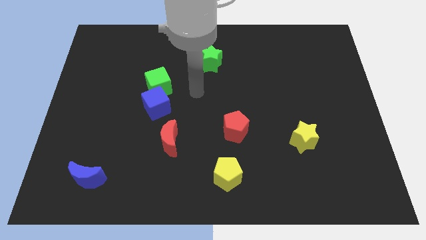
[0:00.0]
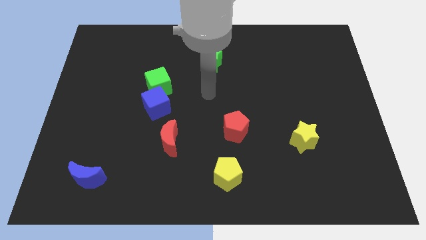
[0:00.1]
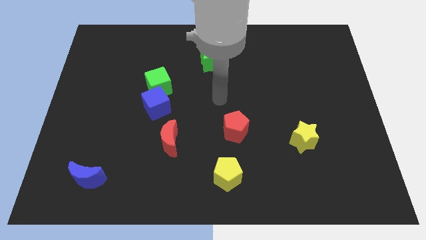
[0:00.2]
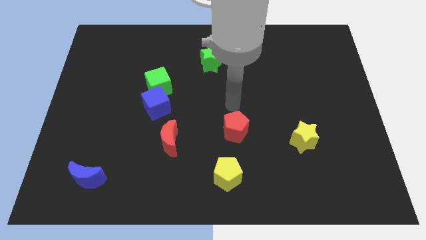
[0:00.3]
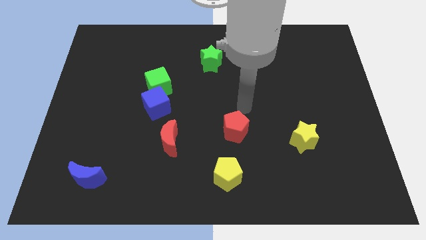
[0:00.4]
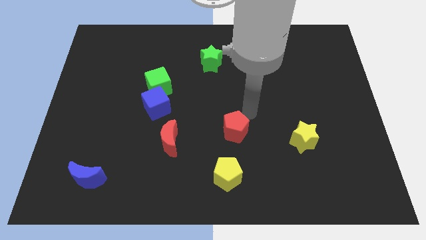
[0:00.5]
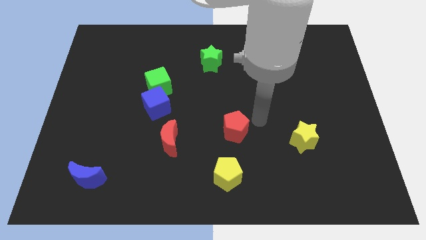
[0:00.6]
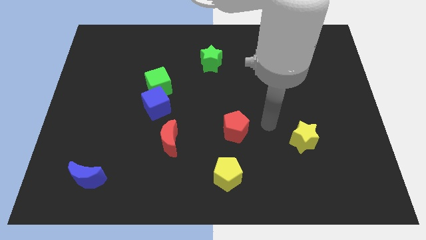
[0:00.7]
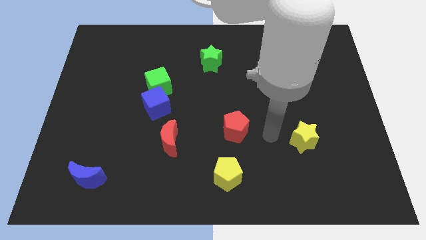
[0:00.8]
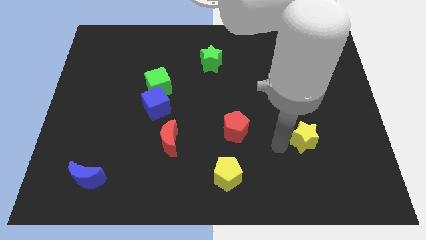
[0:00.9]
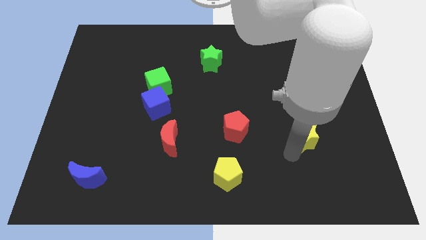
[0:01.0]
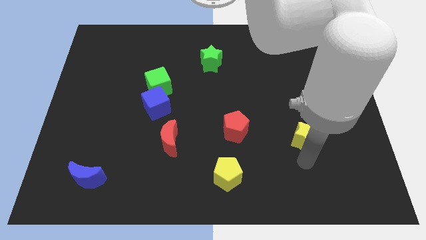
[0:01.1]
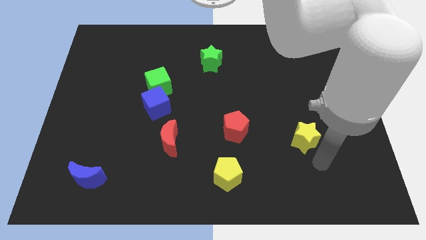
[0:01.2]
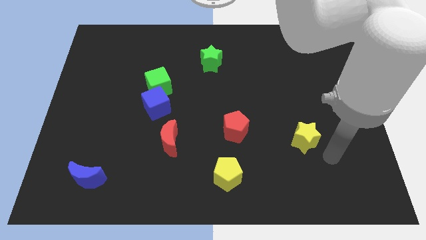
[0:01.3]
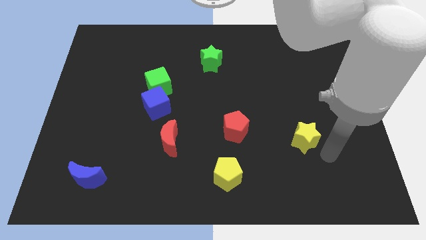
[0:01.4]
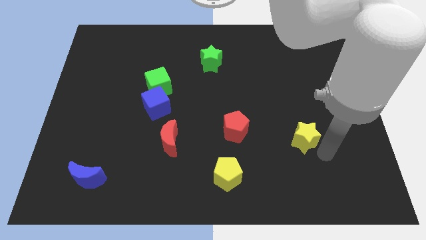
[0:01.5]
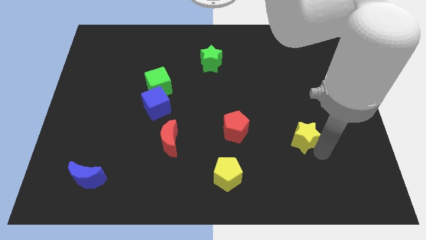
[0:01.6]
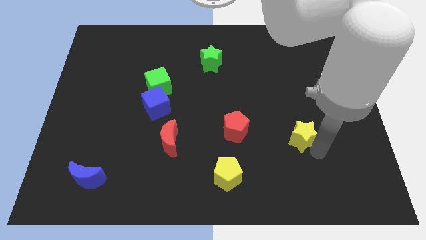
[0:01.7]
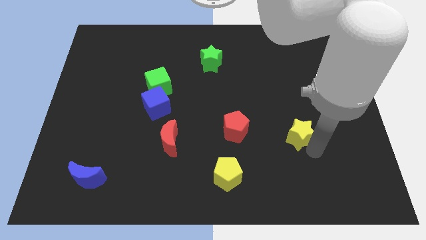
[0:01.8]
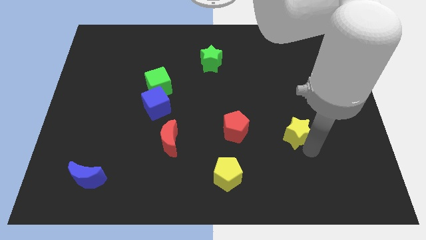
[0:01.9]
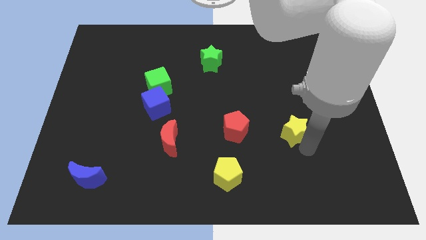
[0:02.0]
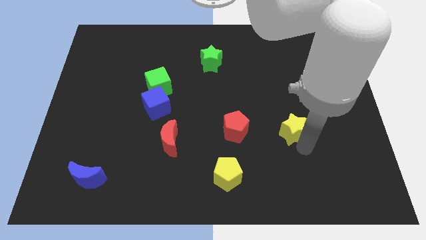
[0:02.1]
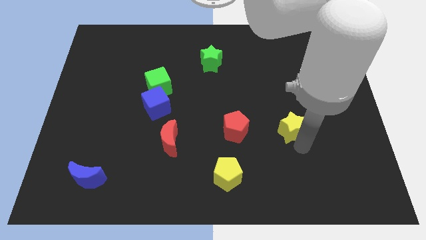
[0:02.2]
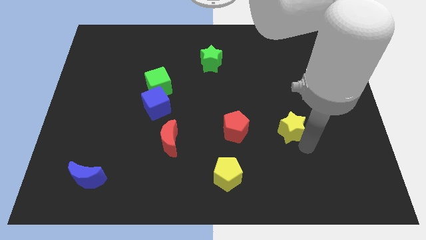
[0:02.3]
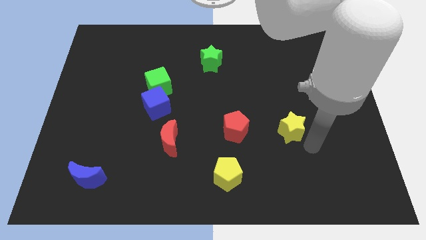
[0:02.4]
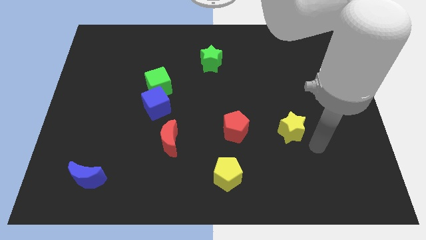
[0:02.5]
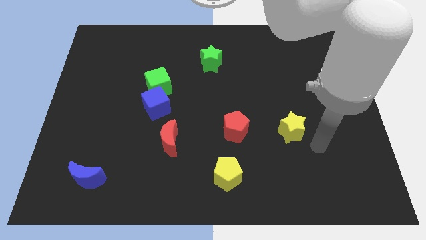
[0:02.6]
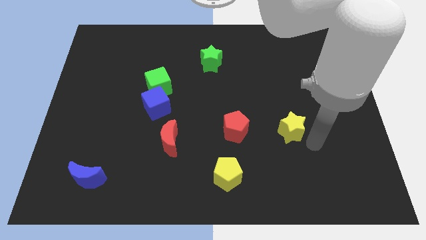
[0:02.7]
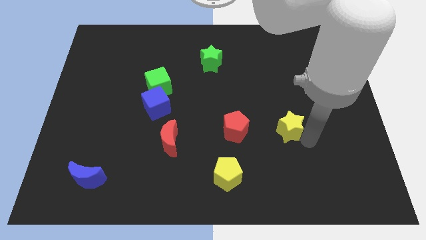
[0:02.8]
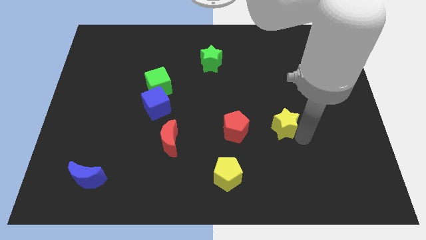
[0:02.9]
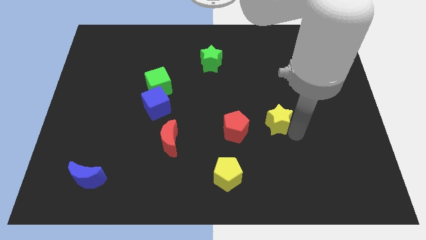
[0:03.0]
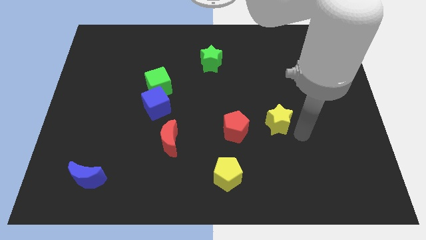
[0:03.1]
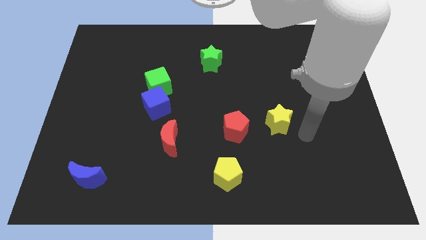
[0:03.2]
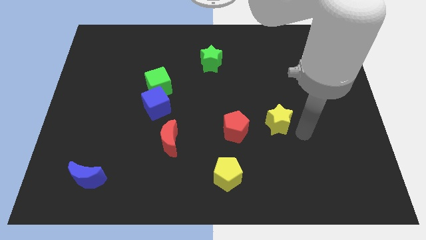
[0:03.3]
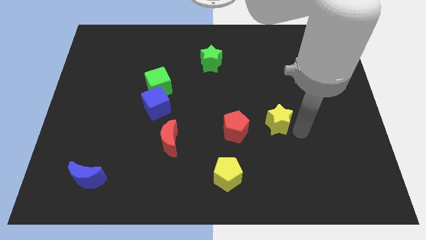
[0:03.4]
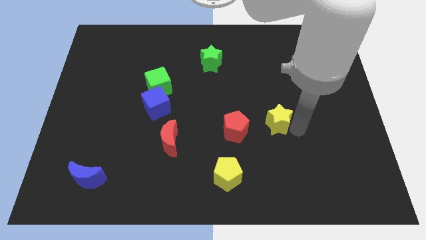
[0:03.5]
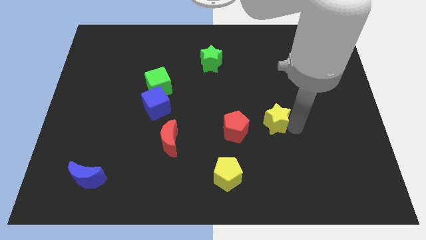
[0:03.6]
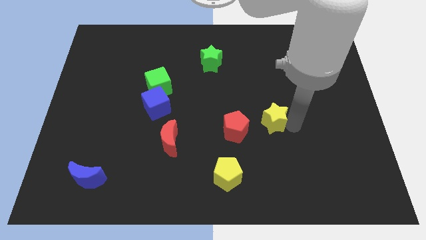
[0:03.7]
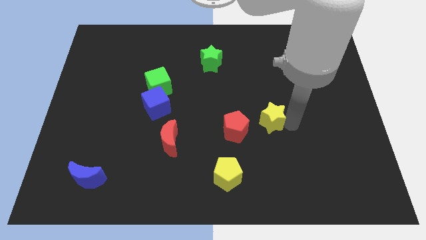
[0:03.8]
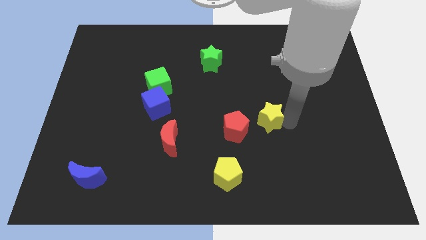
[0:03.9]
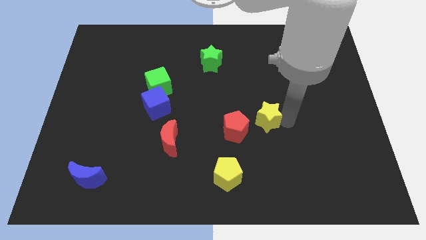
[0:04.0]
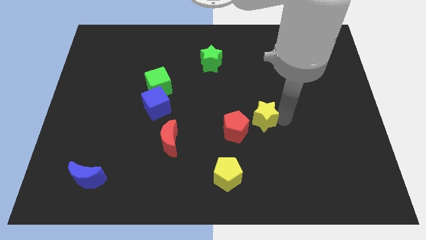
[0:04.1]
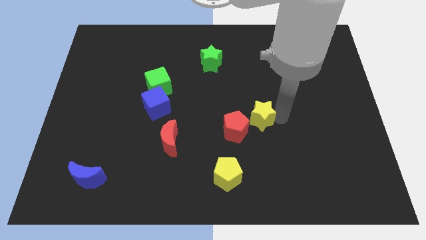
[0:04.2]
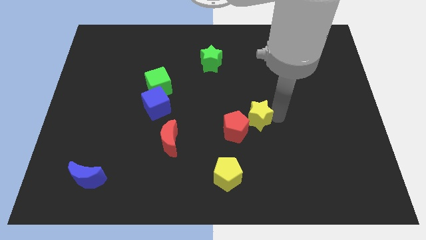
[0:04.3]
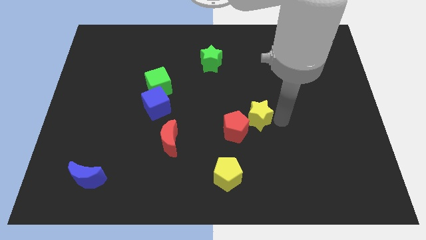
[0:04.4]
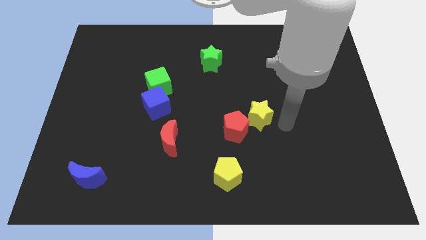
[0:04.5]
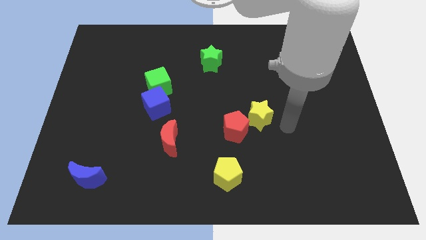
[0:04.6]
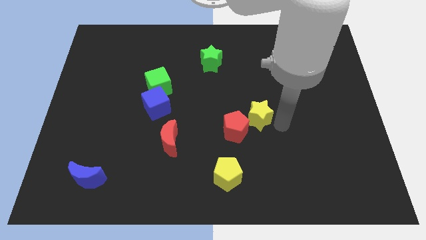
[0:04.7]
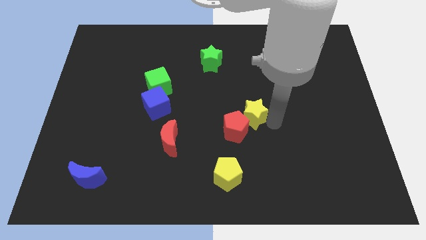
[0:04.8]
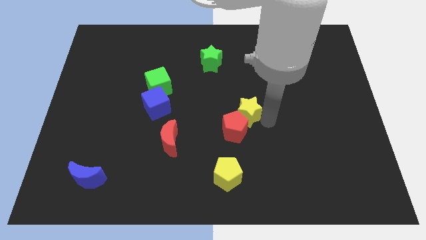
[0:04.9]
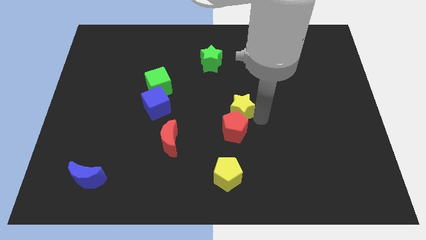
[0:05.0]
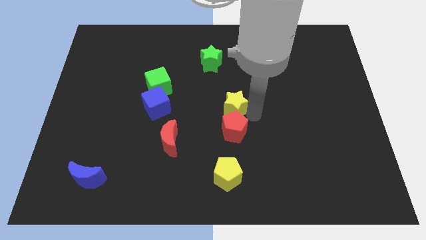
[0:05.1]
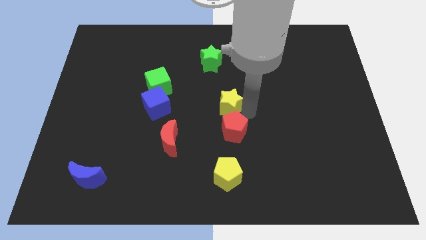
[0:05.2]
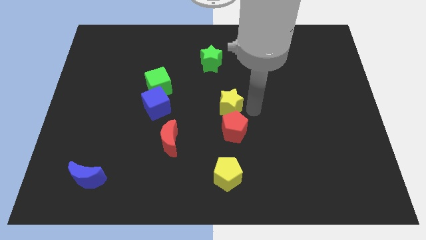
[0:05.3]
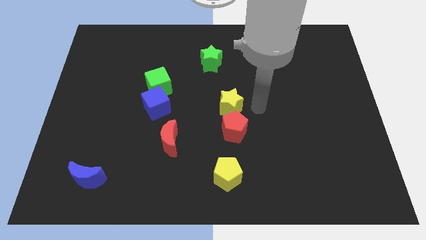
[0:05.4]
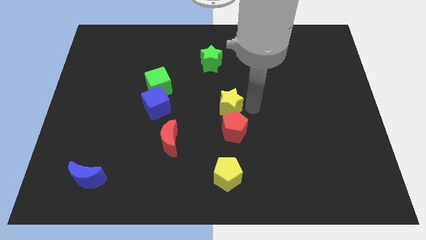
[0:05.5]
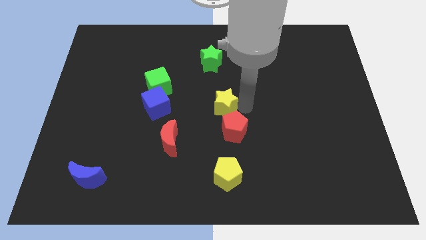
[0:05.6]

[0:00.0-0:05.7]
slide the yellow star to the right of the blue cube

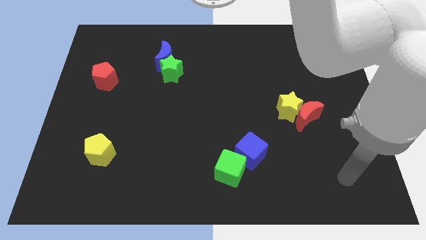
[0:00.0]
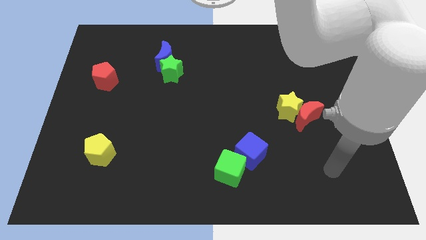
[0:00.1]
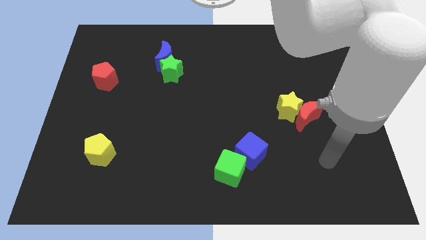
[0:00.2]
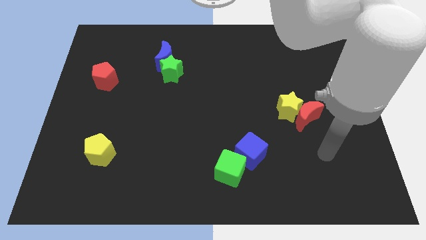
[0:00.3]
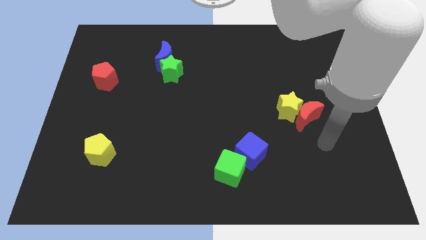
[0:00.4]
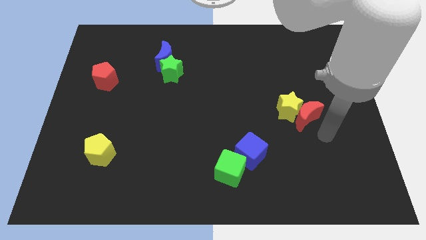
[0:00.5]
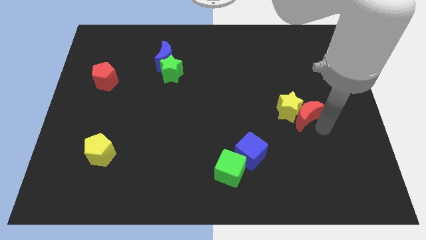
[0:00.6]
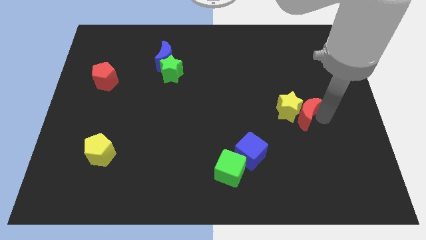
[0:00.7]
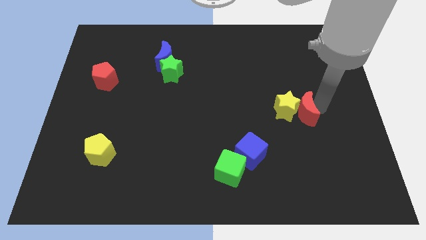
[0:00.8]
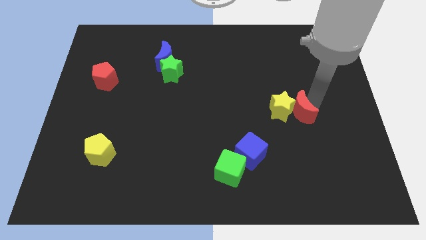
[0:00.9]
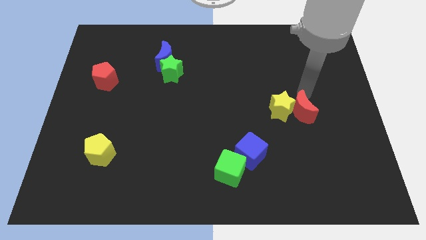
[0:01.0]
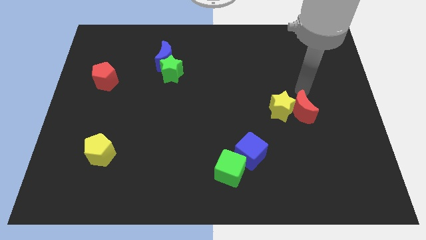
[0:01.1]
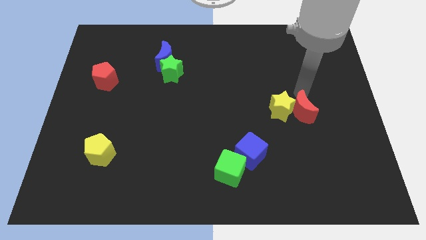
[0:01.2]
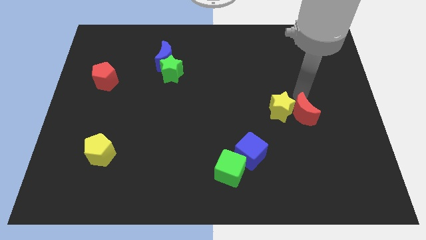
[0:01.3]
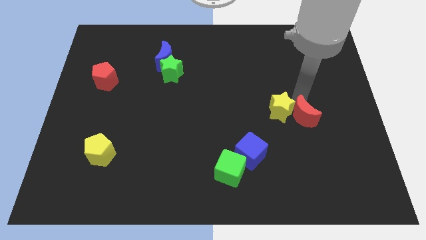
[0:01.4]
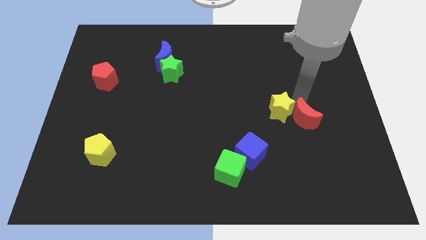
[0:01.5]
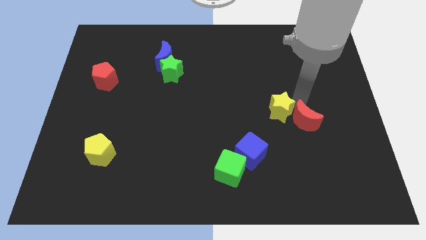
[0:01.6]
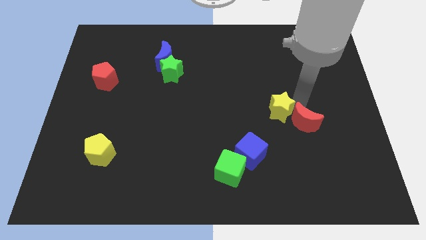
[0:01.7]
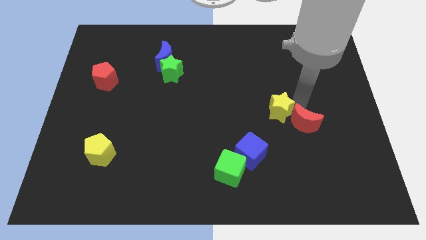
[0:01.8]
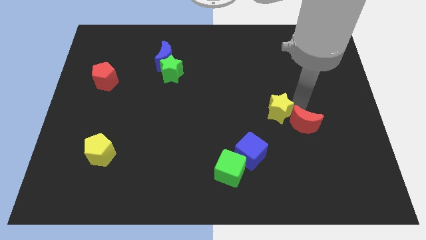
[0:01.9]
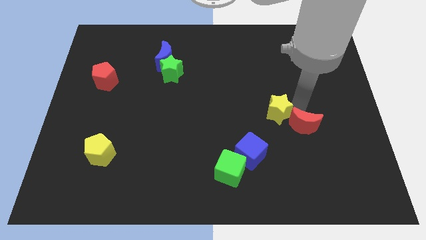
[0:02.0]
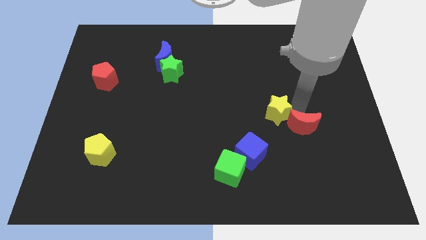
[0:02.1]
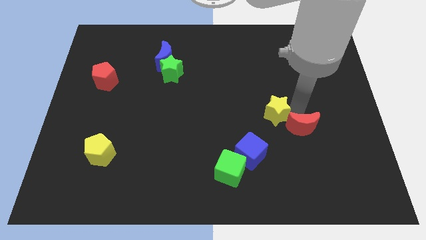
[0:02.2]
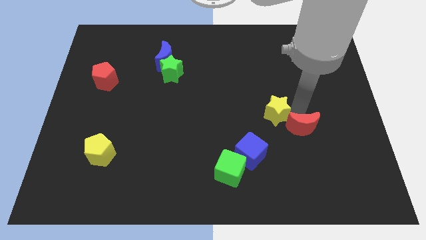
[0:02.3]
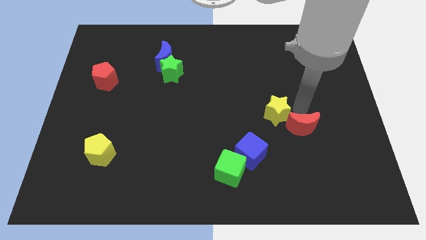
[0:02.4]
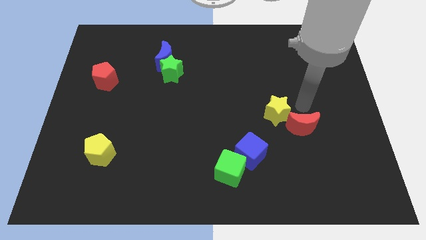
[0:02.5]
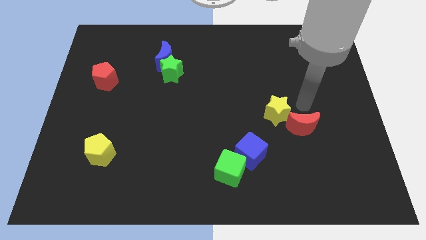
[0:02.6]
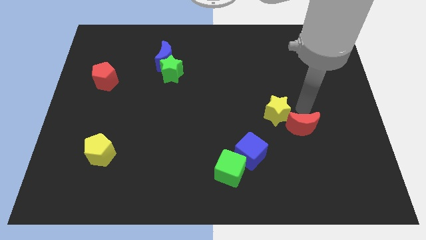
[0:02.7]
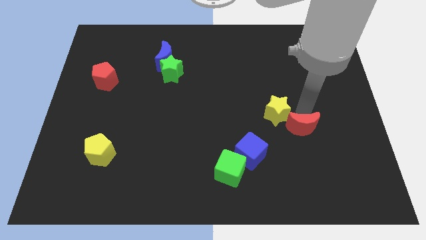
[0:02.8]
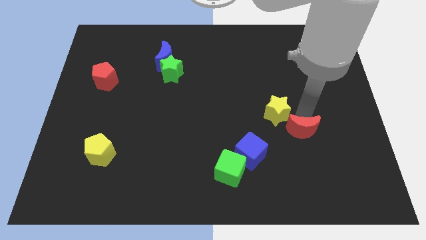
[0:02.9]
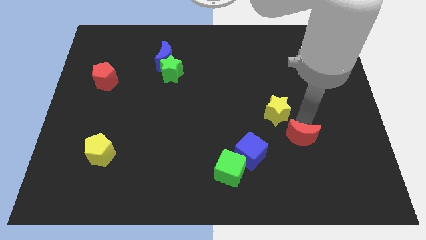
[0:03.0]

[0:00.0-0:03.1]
put the red moon right of the blue cube
